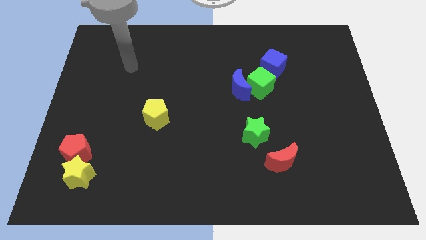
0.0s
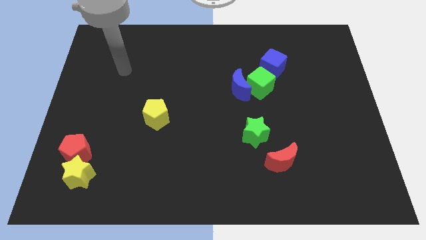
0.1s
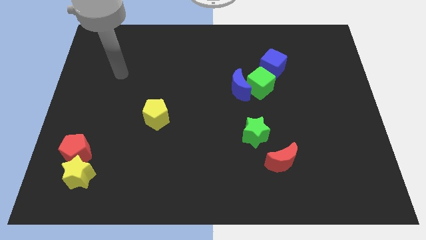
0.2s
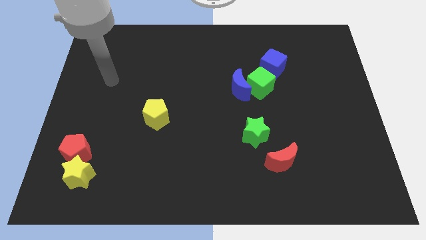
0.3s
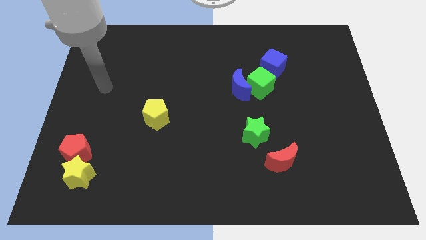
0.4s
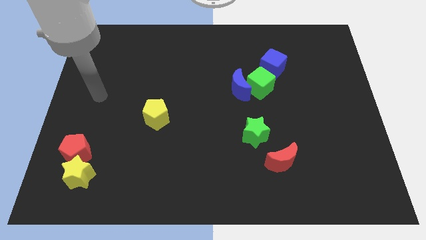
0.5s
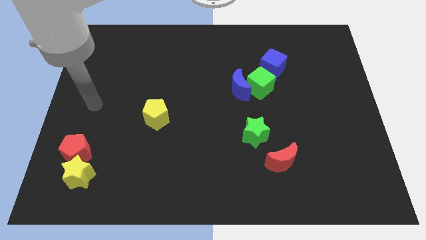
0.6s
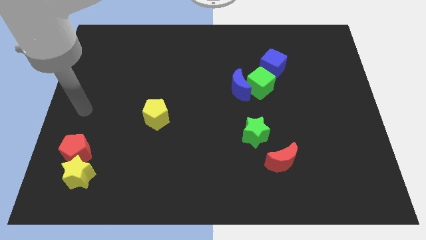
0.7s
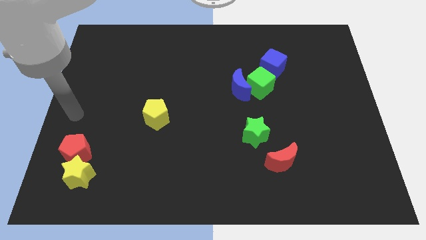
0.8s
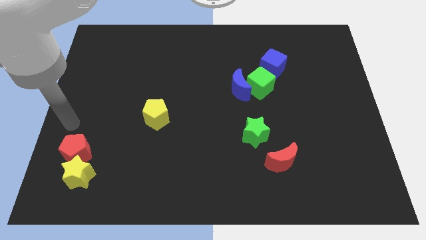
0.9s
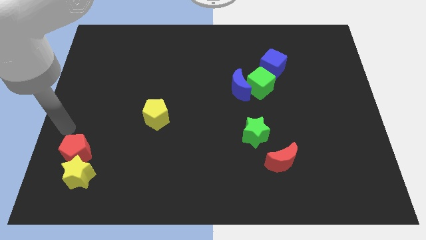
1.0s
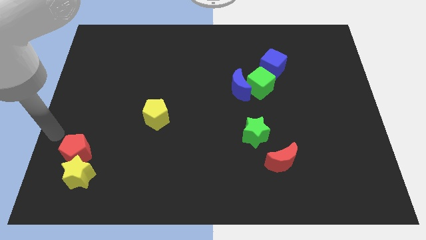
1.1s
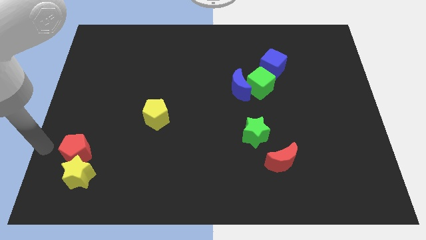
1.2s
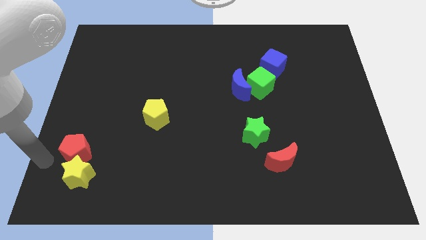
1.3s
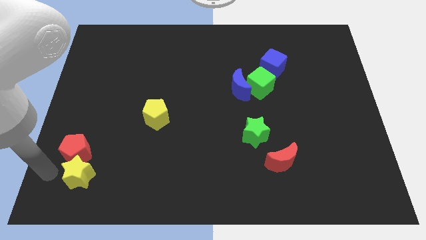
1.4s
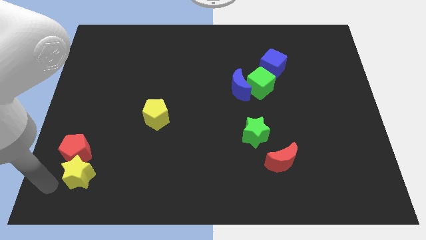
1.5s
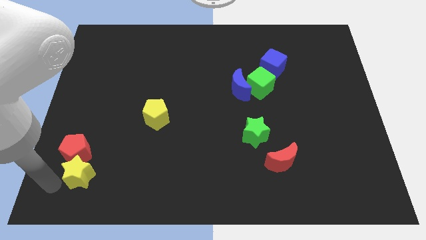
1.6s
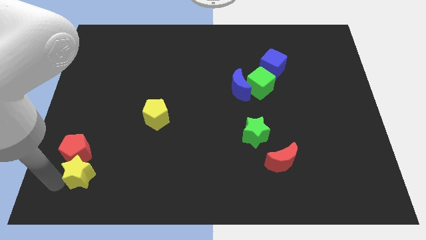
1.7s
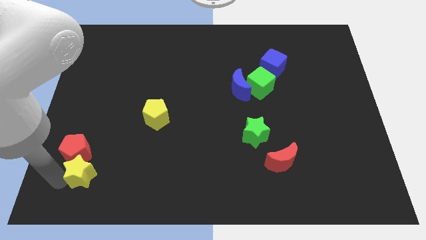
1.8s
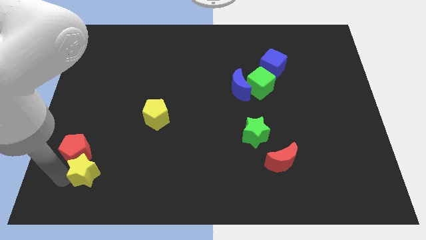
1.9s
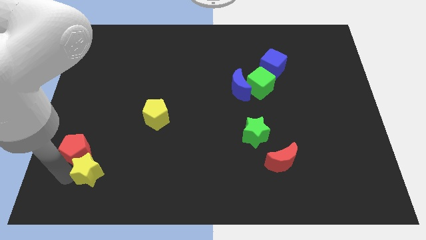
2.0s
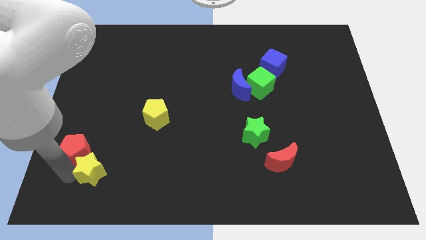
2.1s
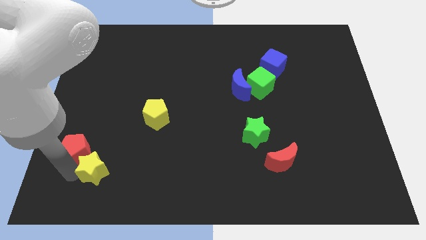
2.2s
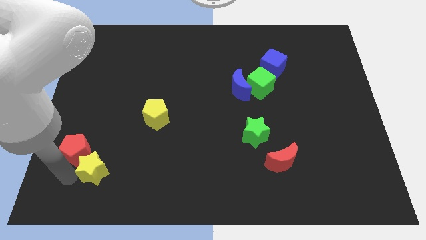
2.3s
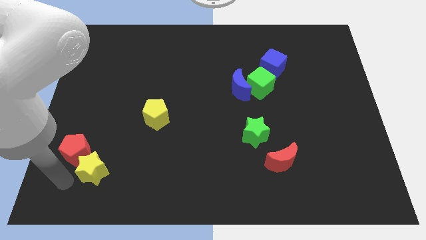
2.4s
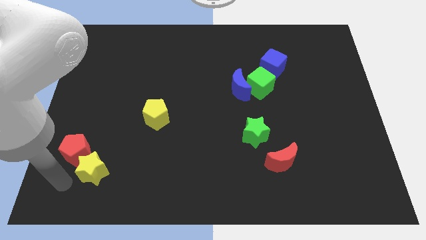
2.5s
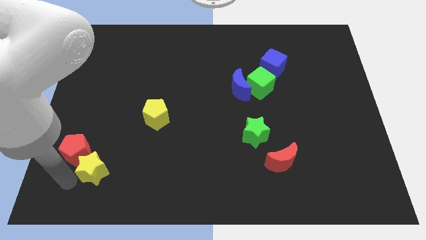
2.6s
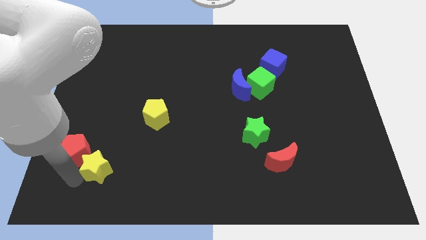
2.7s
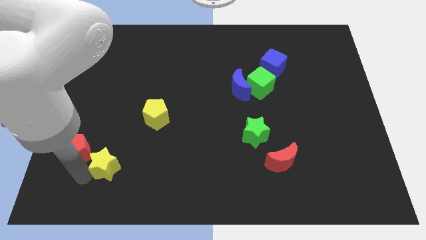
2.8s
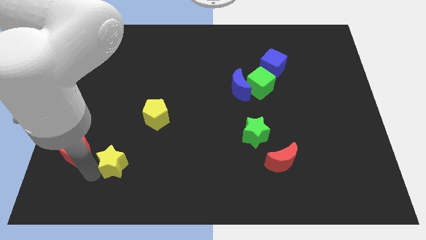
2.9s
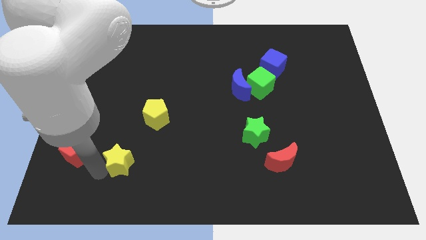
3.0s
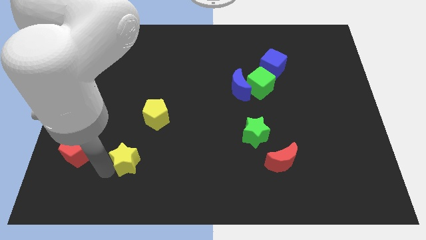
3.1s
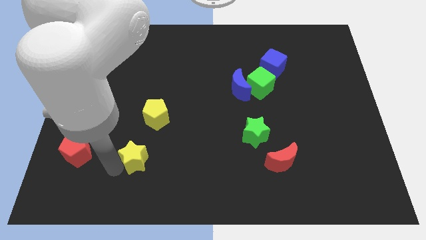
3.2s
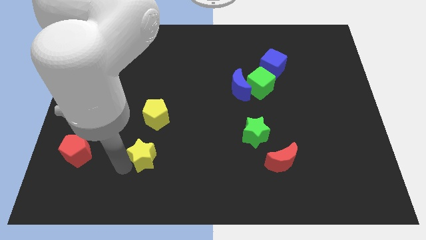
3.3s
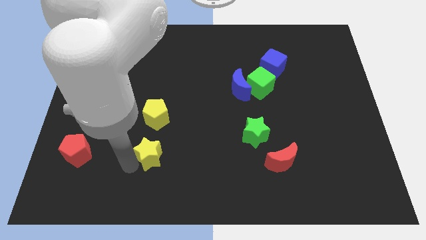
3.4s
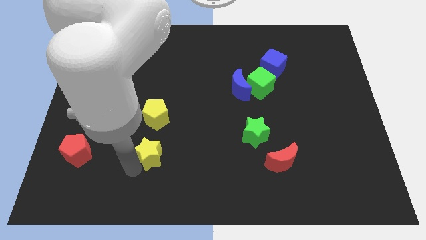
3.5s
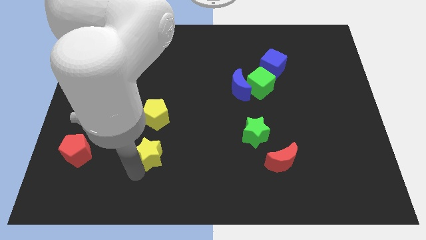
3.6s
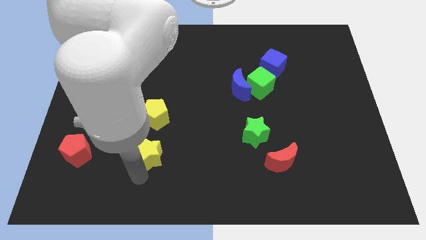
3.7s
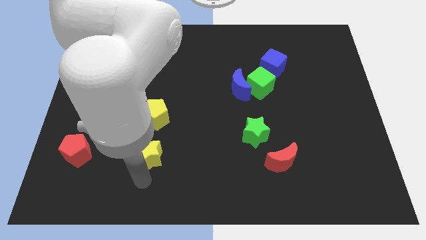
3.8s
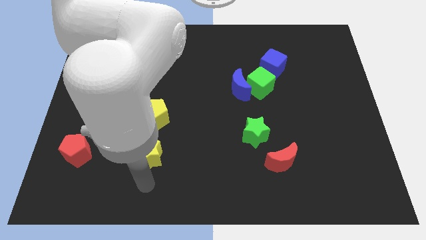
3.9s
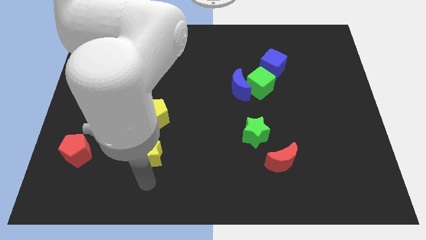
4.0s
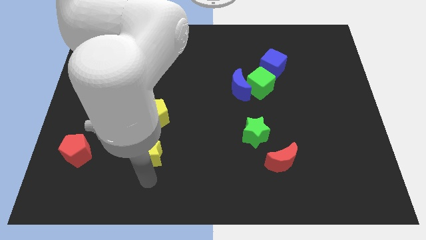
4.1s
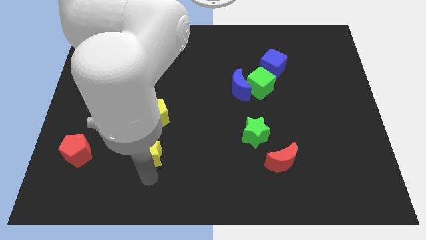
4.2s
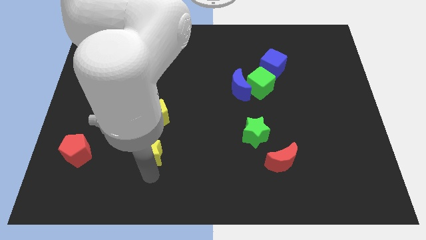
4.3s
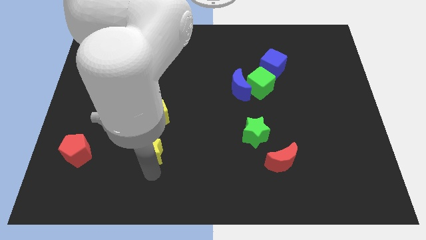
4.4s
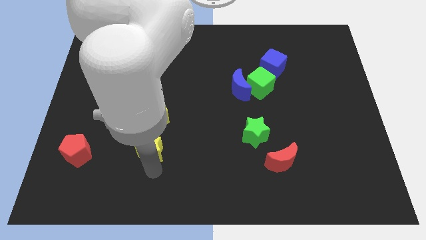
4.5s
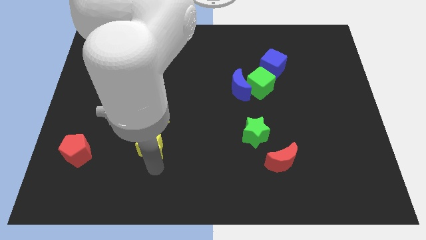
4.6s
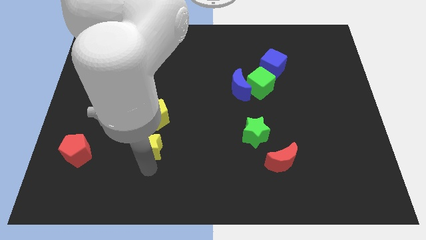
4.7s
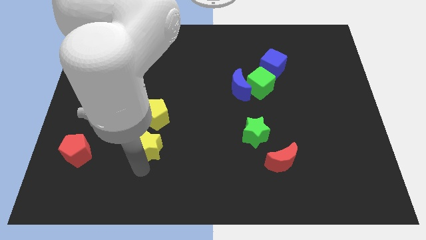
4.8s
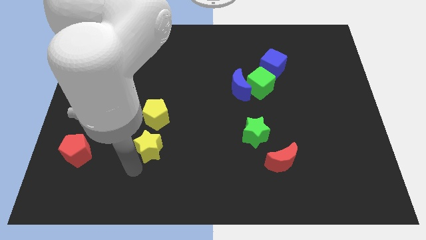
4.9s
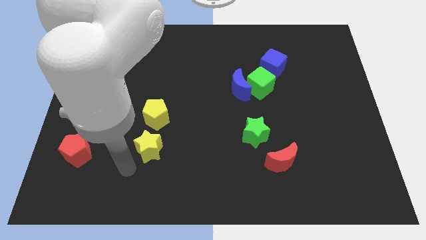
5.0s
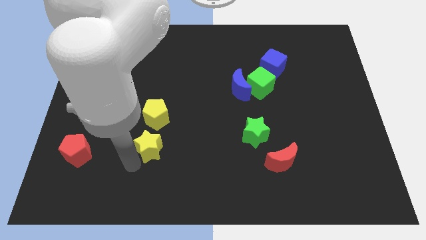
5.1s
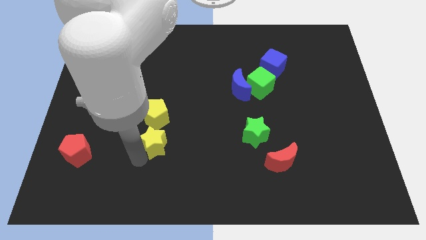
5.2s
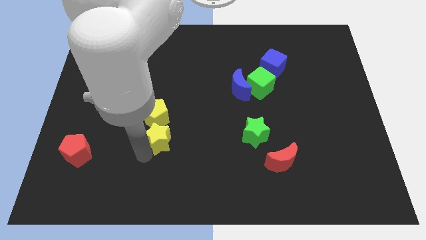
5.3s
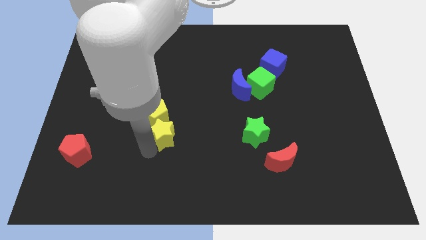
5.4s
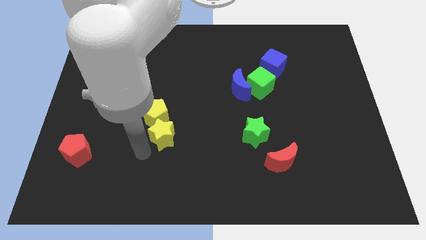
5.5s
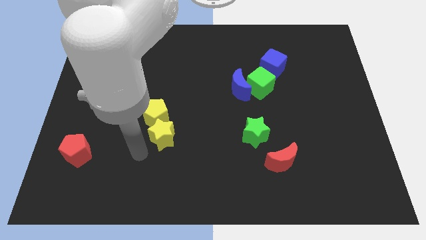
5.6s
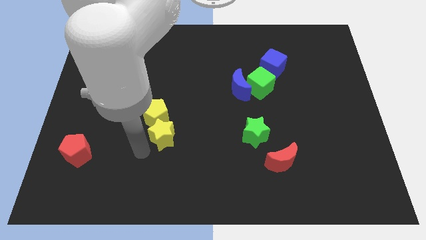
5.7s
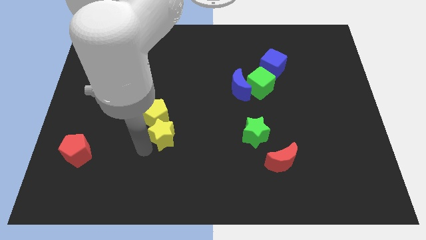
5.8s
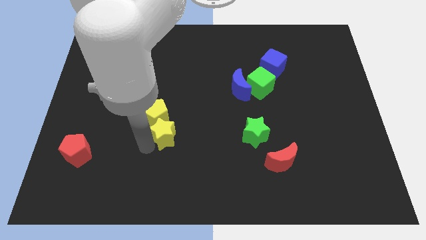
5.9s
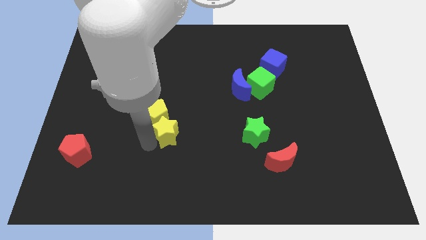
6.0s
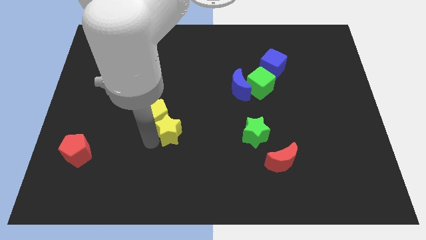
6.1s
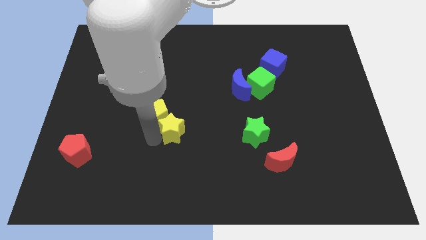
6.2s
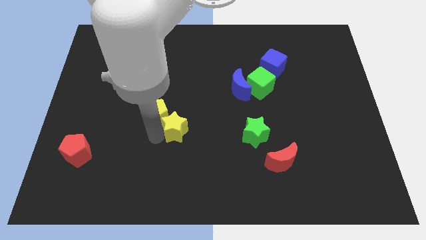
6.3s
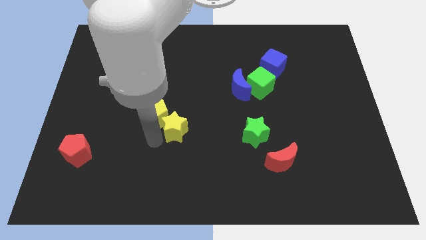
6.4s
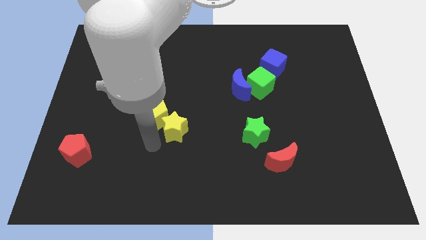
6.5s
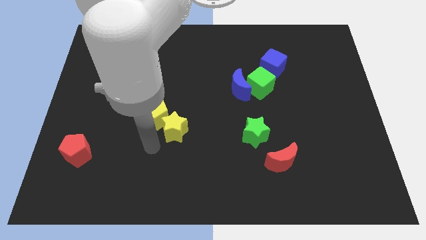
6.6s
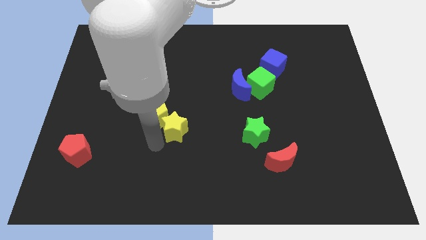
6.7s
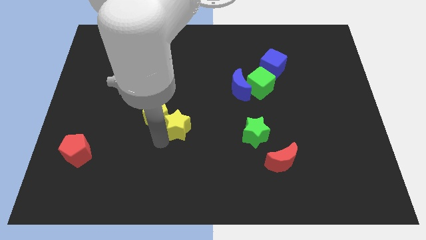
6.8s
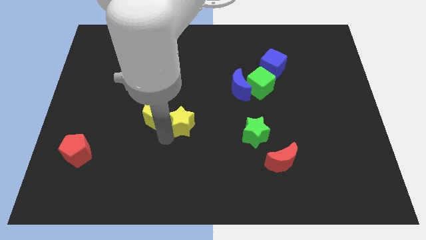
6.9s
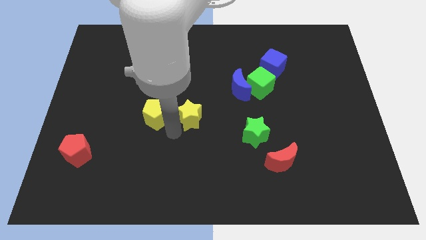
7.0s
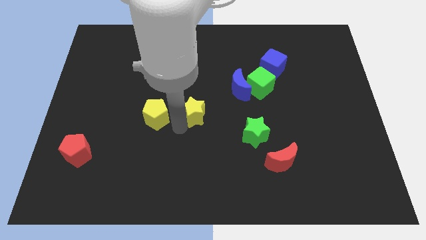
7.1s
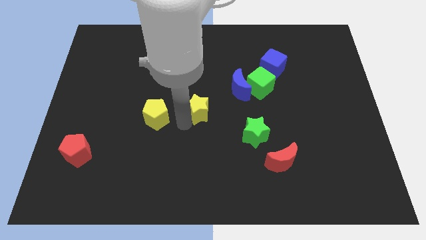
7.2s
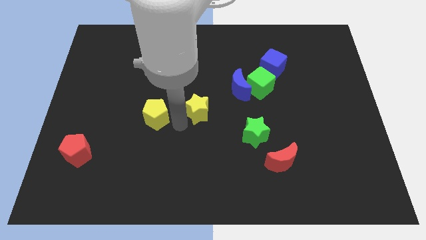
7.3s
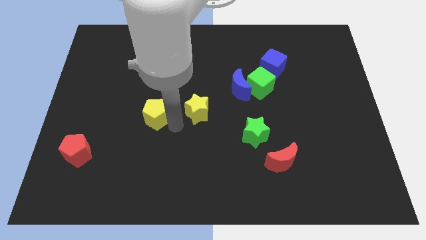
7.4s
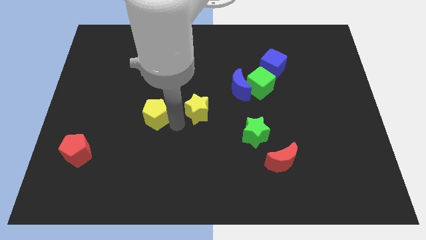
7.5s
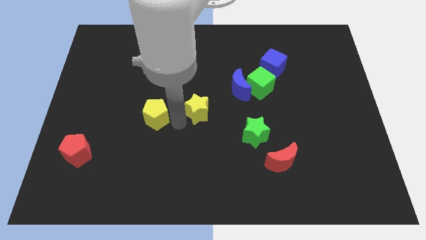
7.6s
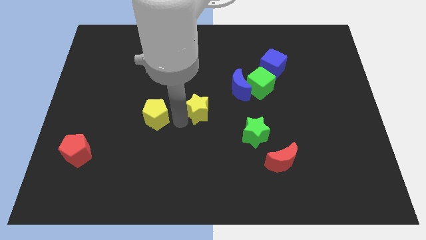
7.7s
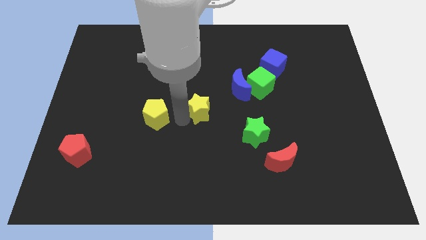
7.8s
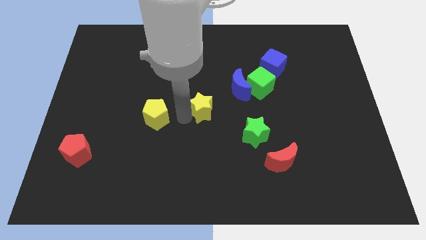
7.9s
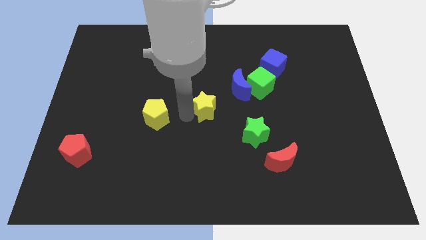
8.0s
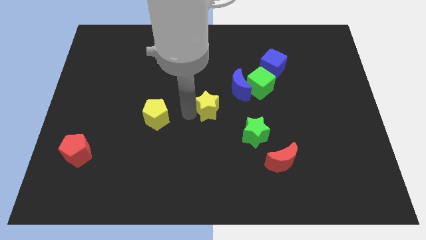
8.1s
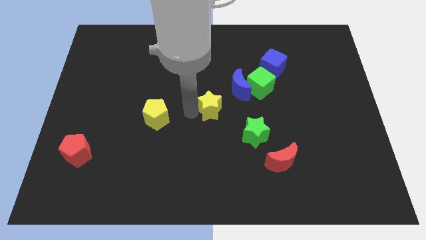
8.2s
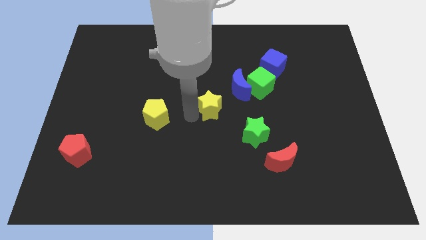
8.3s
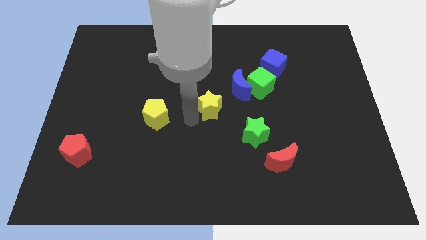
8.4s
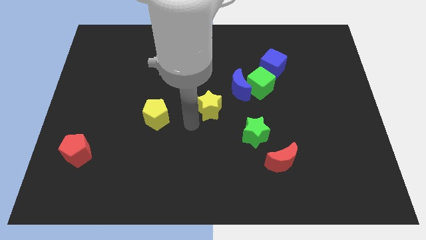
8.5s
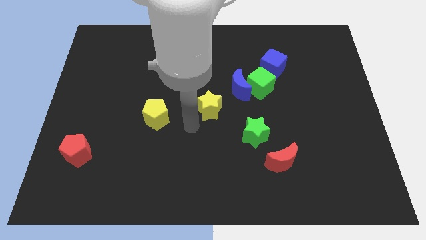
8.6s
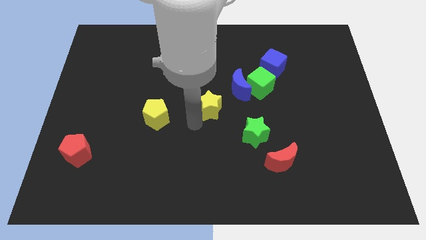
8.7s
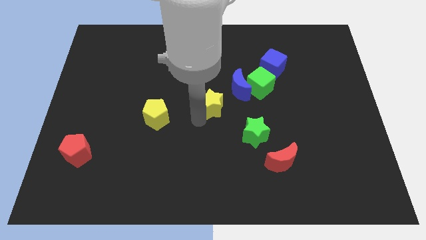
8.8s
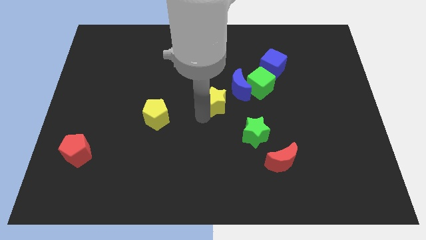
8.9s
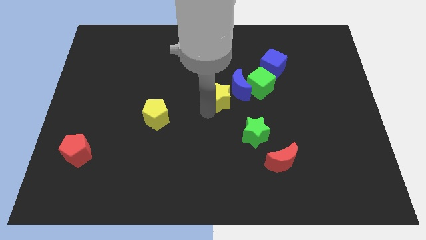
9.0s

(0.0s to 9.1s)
push the yellow star to the blue moon
